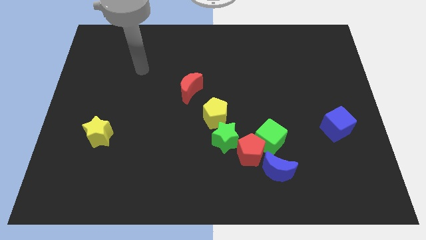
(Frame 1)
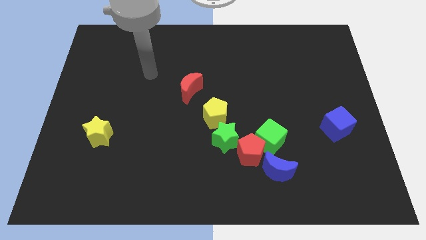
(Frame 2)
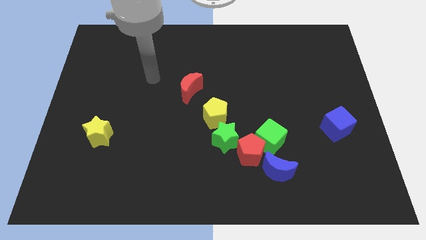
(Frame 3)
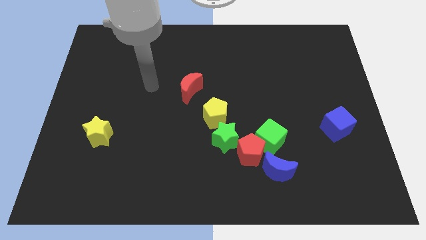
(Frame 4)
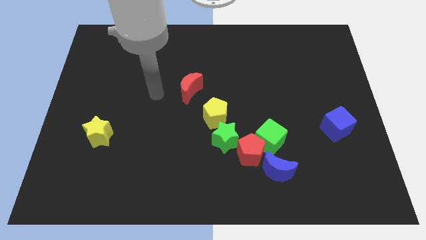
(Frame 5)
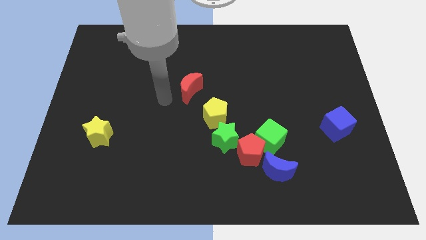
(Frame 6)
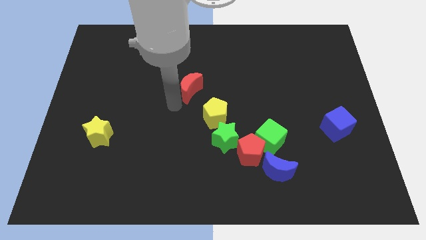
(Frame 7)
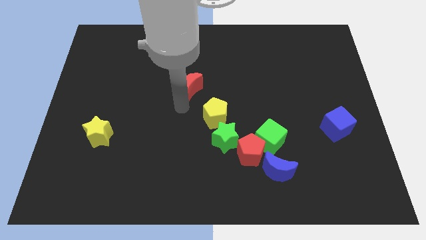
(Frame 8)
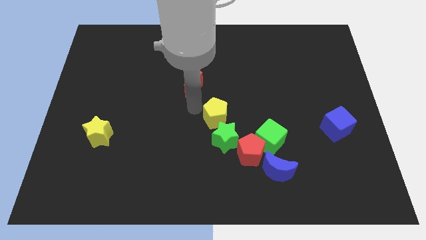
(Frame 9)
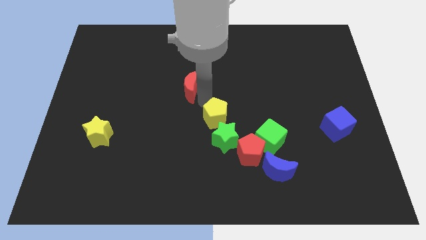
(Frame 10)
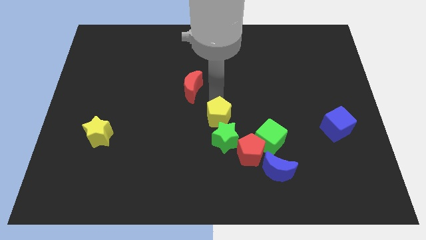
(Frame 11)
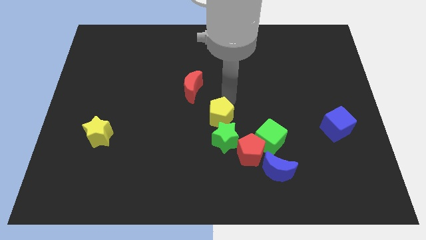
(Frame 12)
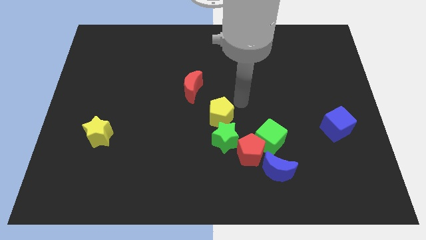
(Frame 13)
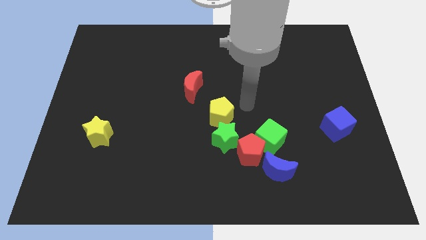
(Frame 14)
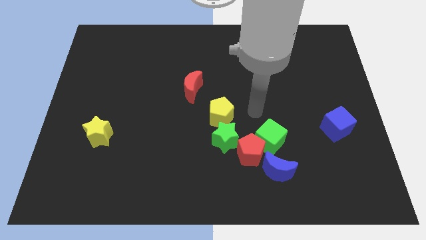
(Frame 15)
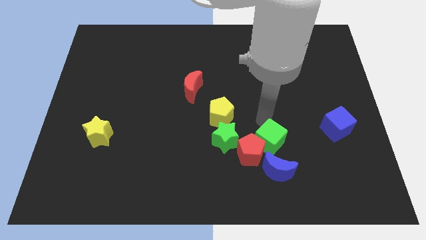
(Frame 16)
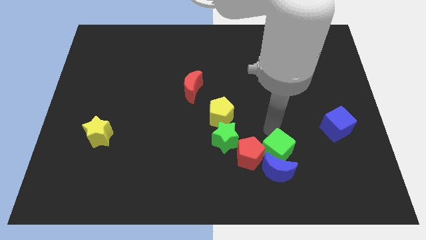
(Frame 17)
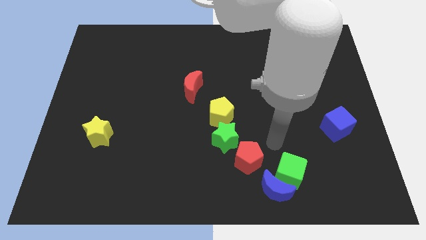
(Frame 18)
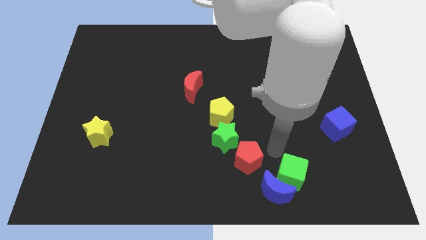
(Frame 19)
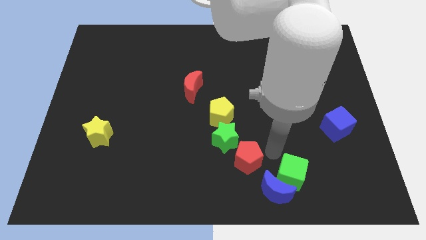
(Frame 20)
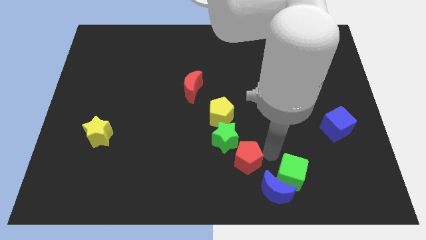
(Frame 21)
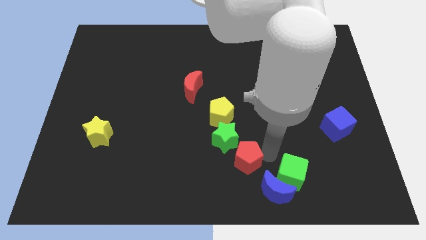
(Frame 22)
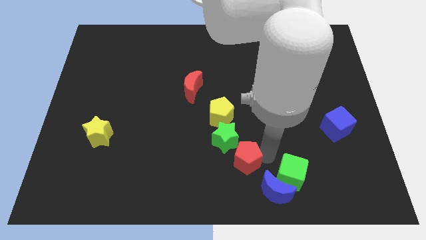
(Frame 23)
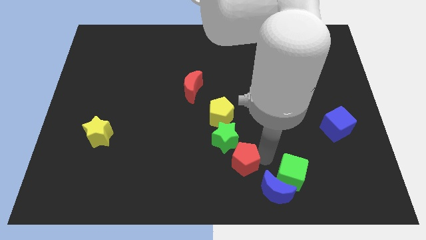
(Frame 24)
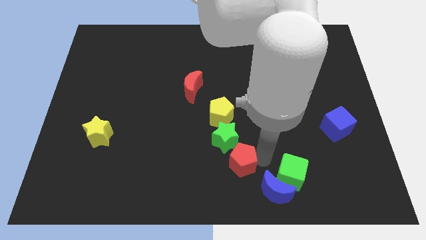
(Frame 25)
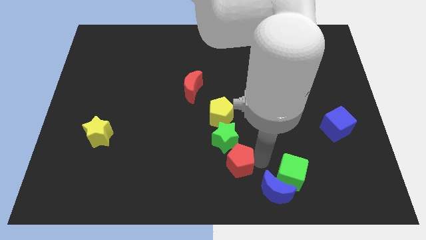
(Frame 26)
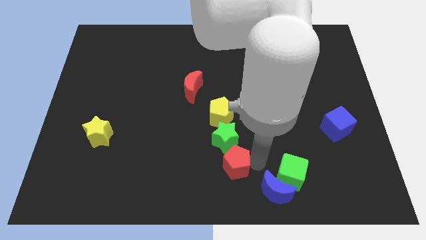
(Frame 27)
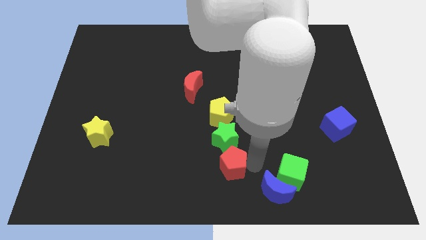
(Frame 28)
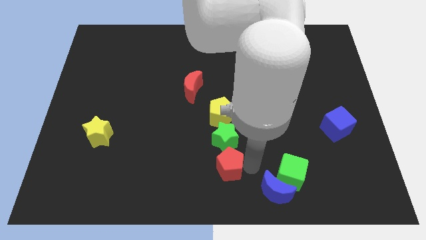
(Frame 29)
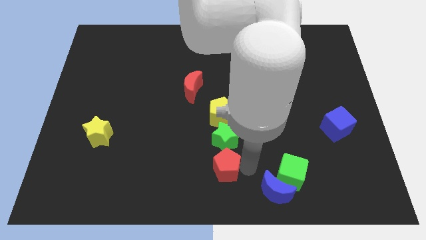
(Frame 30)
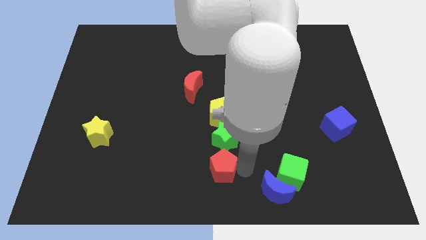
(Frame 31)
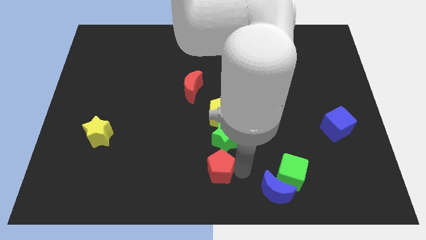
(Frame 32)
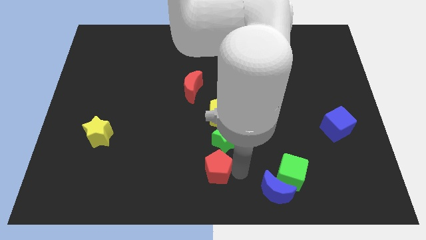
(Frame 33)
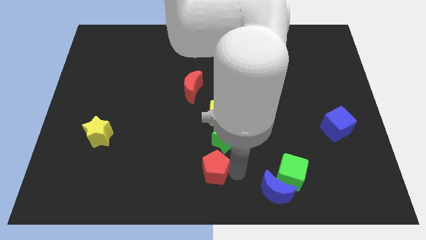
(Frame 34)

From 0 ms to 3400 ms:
pull the red pentagon apart from the group

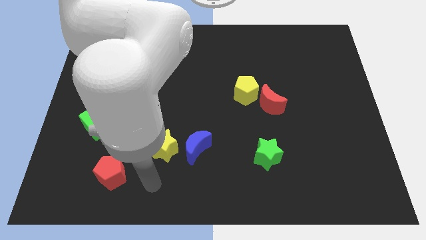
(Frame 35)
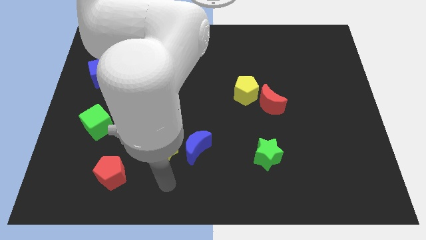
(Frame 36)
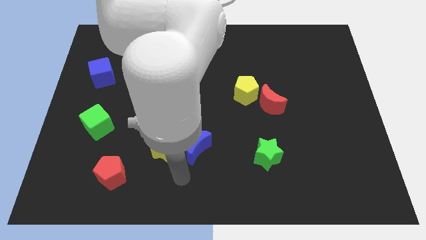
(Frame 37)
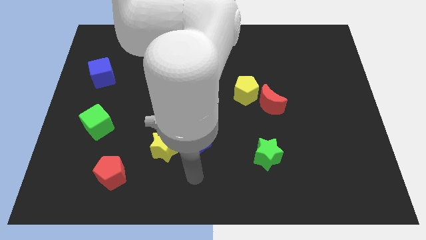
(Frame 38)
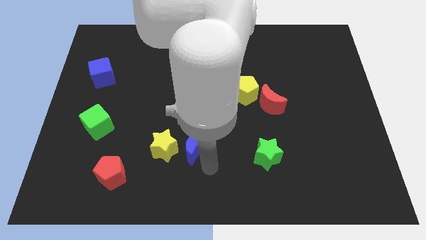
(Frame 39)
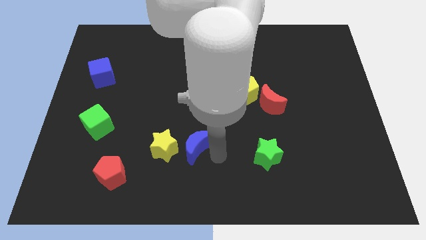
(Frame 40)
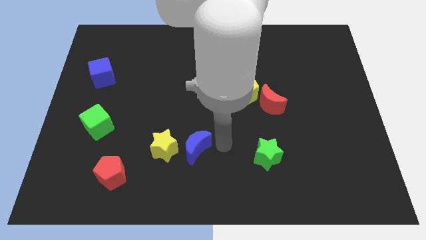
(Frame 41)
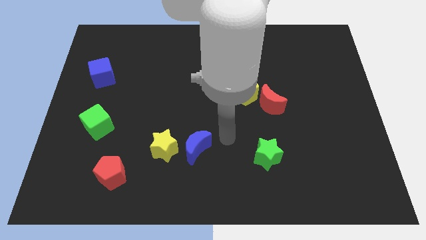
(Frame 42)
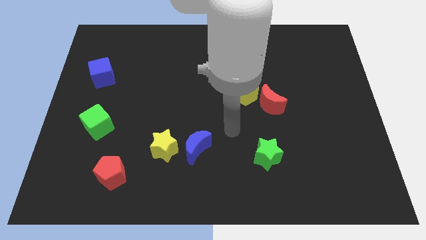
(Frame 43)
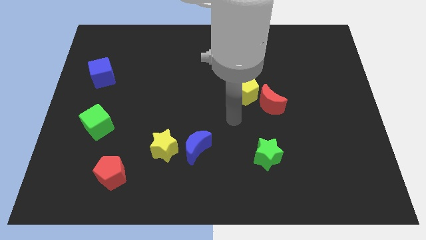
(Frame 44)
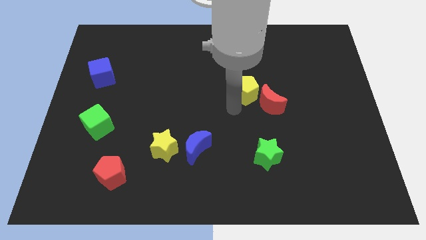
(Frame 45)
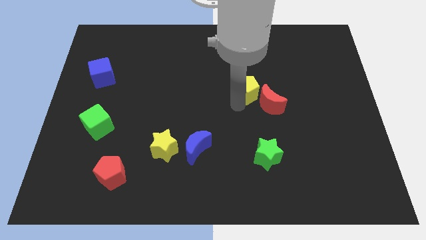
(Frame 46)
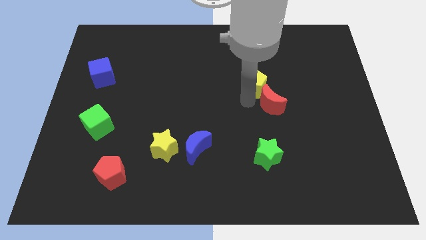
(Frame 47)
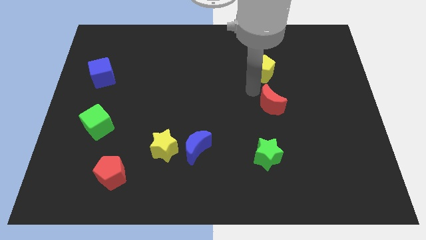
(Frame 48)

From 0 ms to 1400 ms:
pull the red moon apart from the yellow pentagon

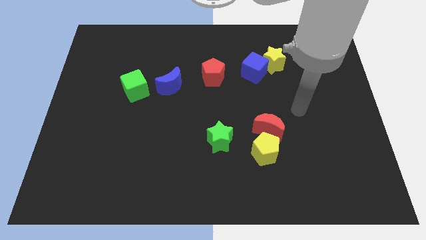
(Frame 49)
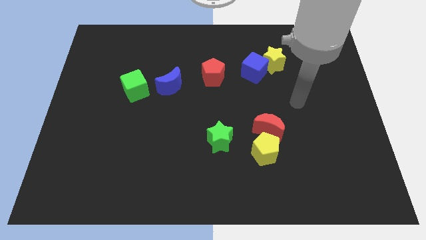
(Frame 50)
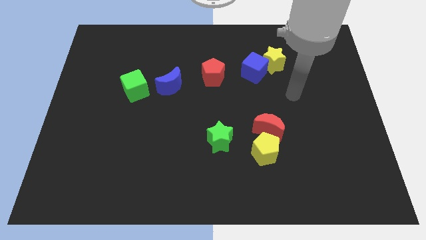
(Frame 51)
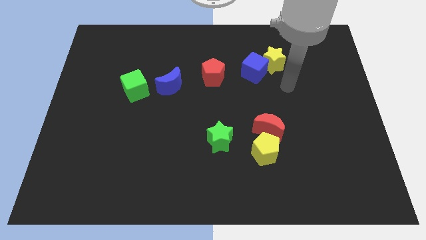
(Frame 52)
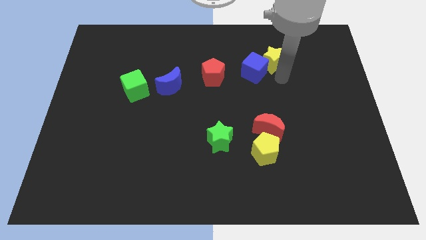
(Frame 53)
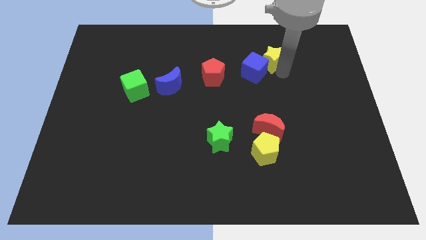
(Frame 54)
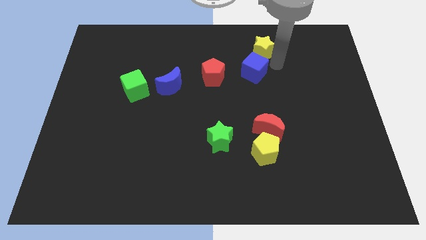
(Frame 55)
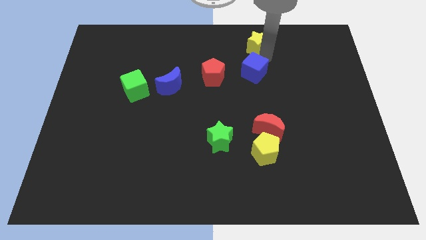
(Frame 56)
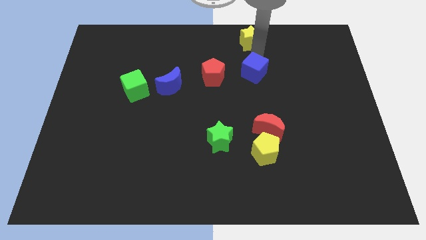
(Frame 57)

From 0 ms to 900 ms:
separate the blue cube from the yellow star

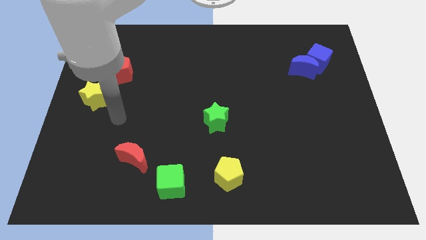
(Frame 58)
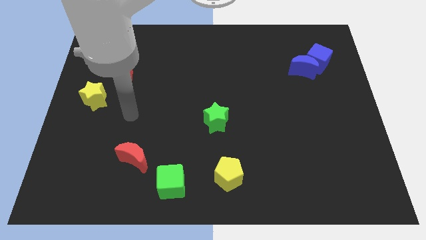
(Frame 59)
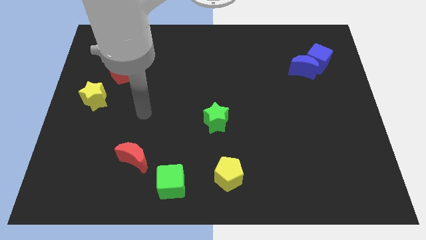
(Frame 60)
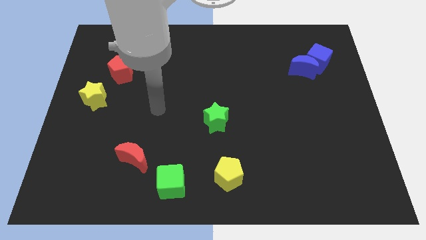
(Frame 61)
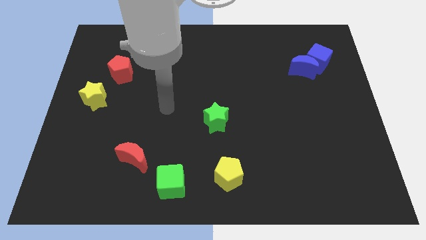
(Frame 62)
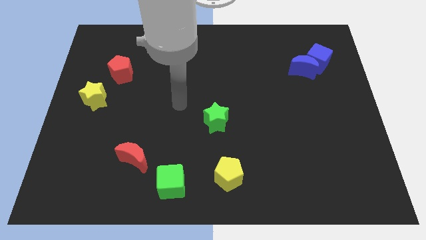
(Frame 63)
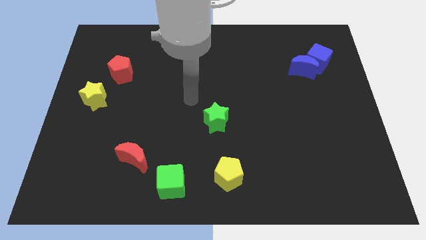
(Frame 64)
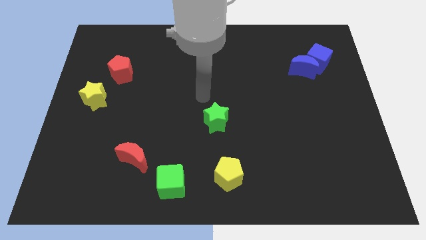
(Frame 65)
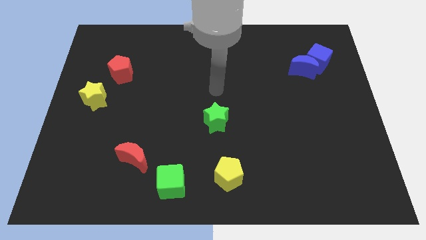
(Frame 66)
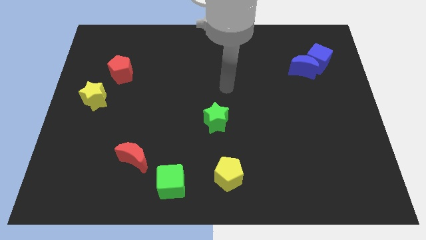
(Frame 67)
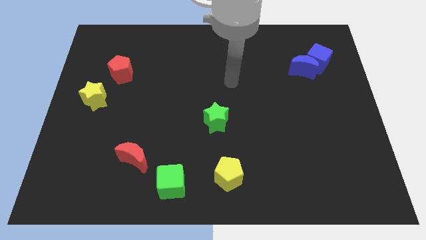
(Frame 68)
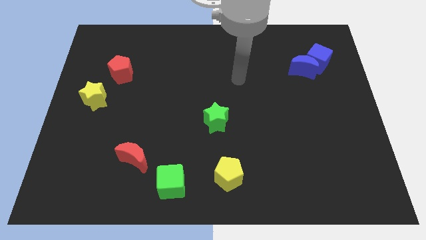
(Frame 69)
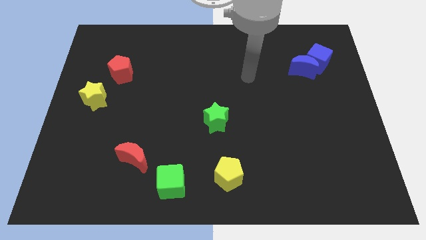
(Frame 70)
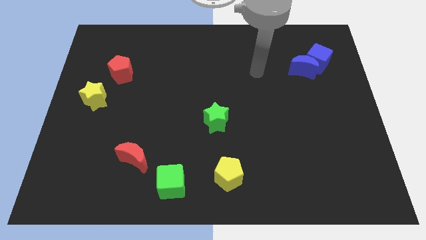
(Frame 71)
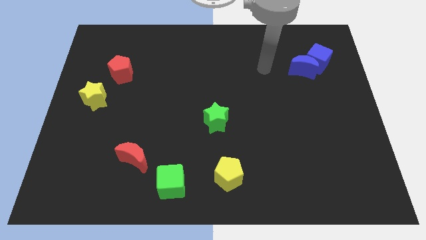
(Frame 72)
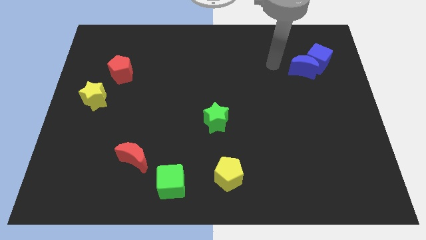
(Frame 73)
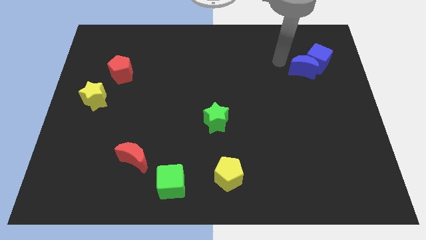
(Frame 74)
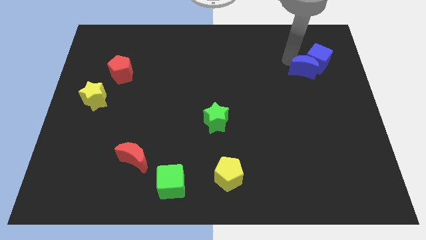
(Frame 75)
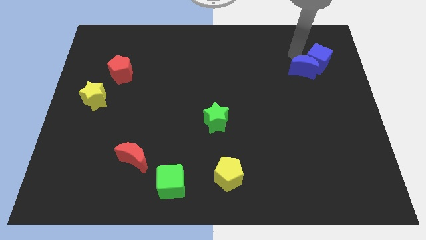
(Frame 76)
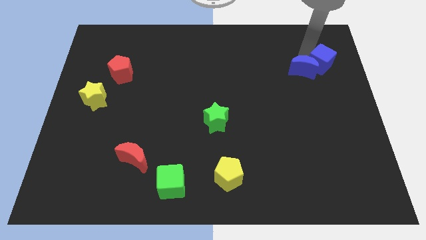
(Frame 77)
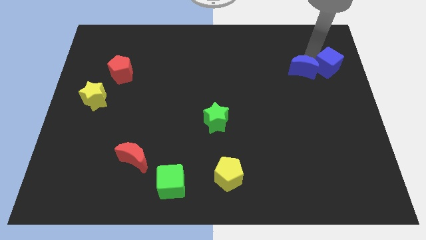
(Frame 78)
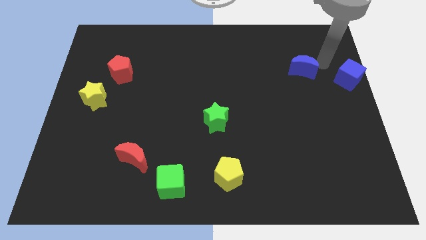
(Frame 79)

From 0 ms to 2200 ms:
move the blue moon away from the blue cube

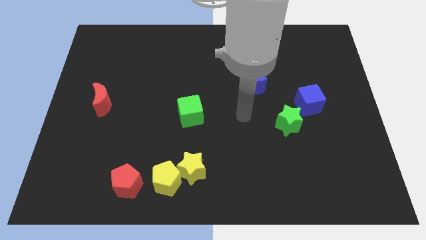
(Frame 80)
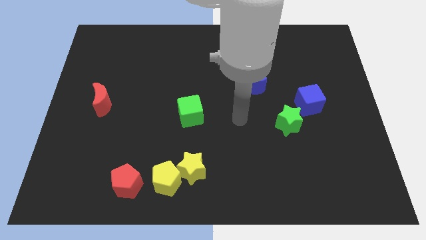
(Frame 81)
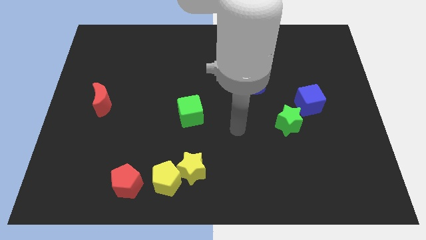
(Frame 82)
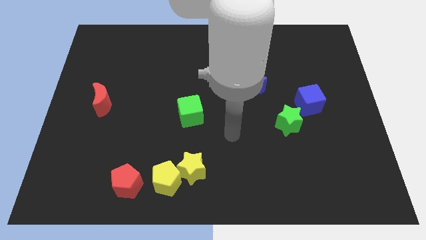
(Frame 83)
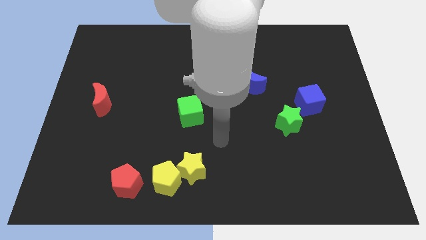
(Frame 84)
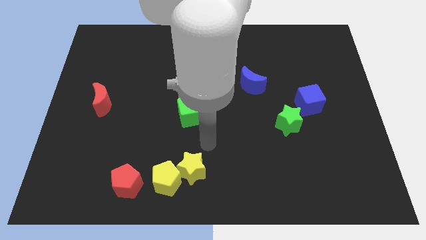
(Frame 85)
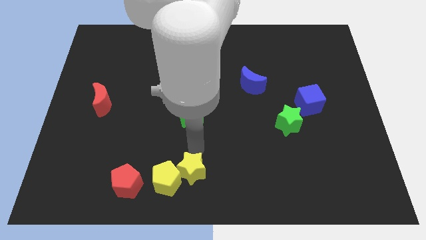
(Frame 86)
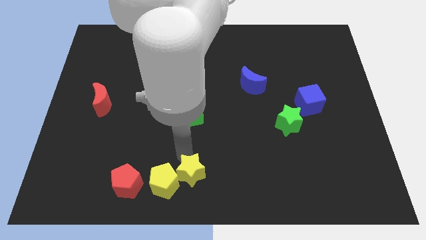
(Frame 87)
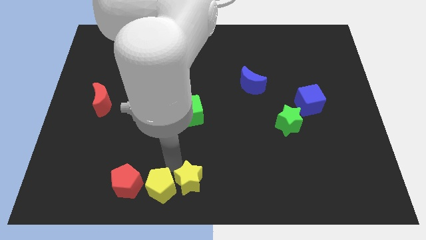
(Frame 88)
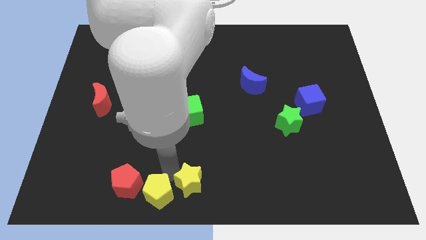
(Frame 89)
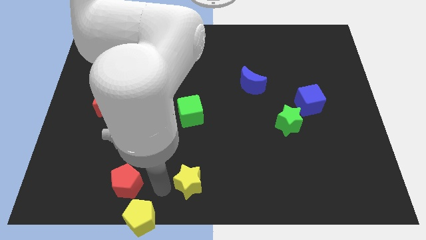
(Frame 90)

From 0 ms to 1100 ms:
move the yellow star away from the yellow pentagon

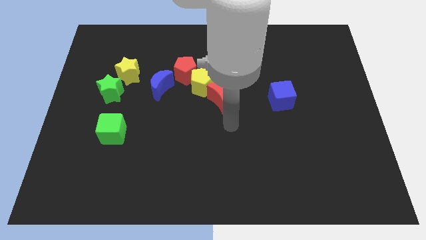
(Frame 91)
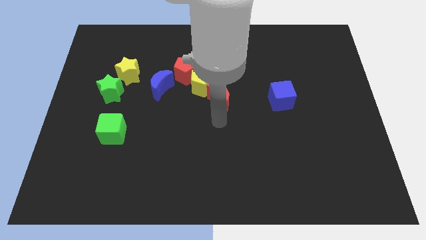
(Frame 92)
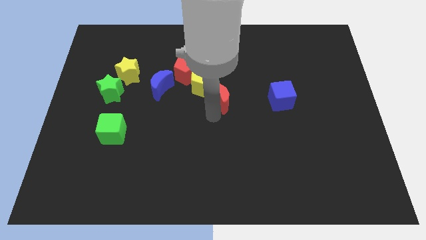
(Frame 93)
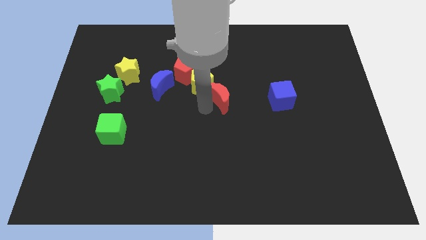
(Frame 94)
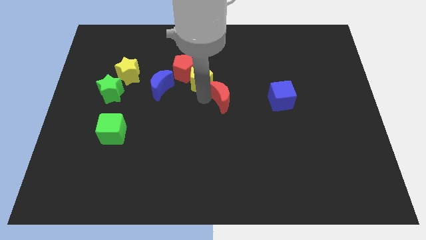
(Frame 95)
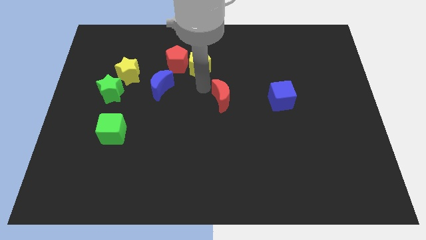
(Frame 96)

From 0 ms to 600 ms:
move the red moon away from the yellow pentagon
